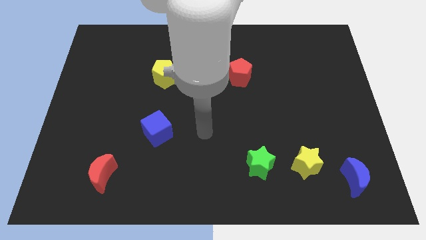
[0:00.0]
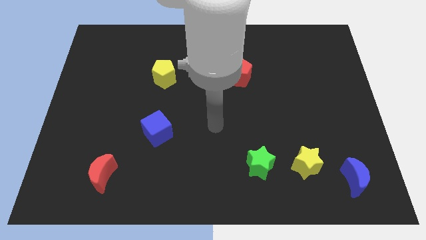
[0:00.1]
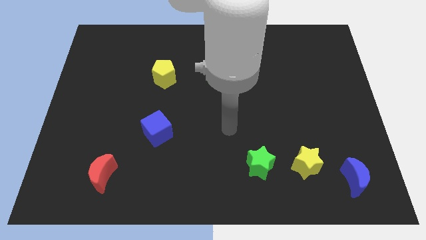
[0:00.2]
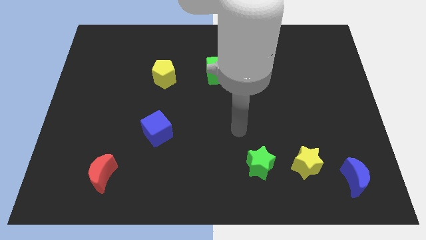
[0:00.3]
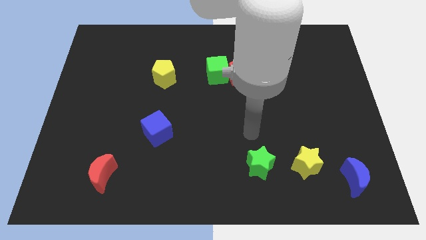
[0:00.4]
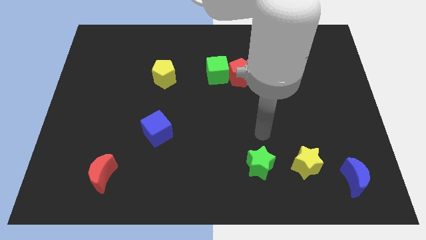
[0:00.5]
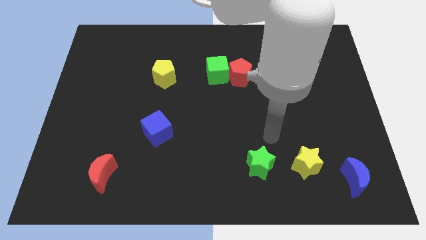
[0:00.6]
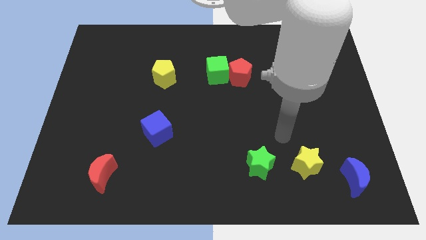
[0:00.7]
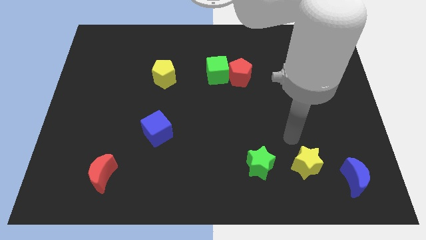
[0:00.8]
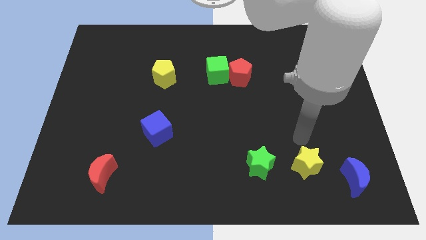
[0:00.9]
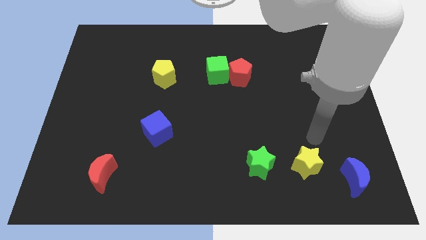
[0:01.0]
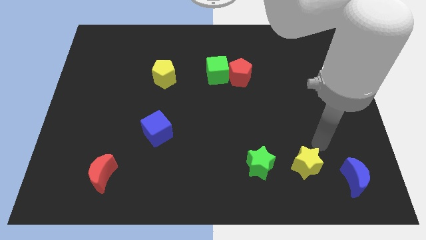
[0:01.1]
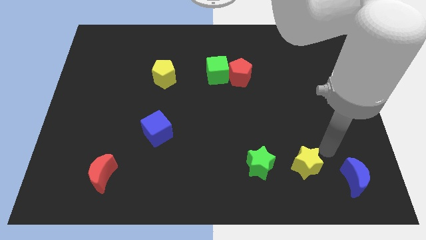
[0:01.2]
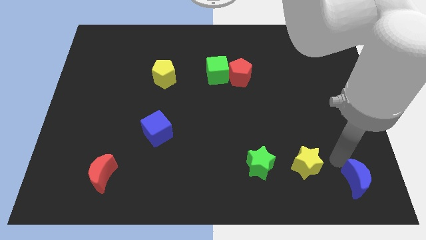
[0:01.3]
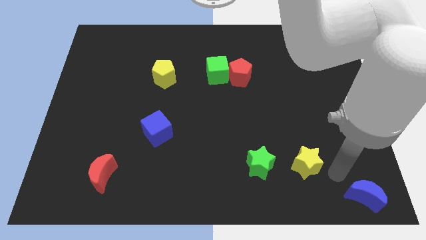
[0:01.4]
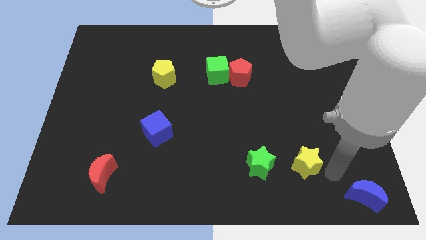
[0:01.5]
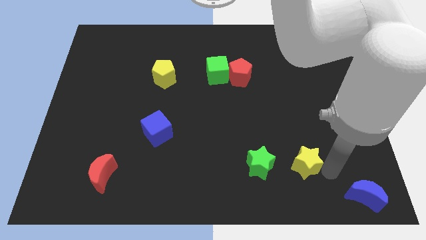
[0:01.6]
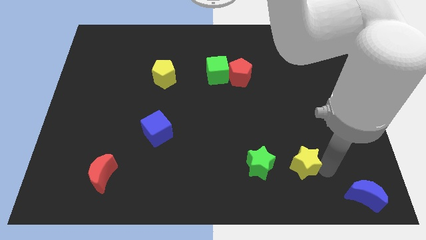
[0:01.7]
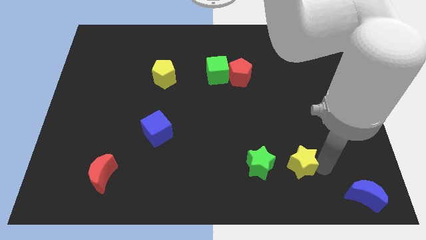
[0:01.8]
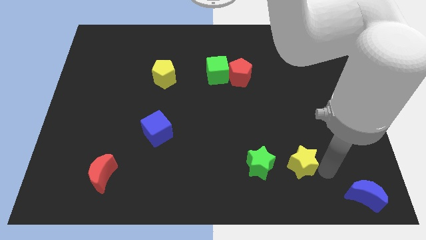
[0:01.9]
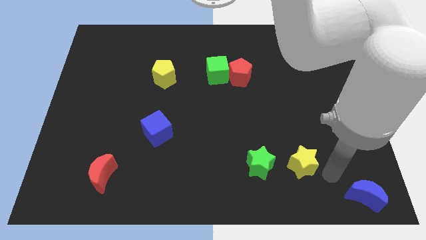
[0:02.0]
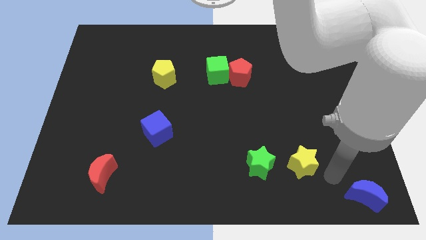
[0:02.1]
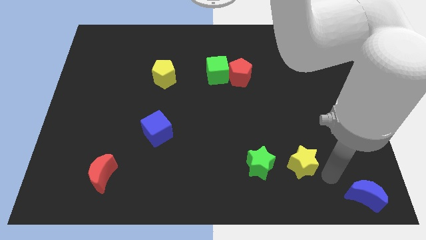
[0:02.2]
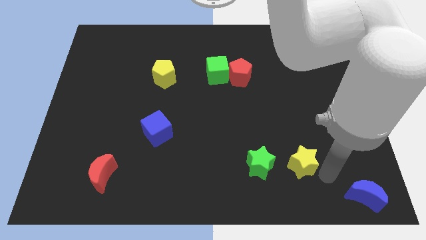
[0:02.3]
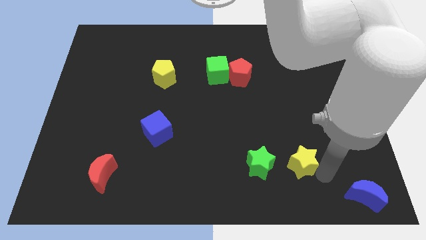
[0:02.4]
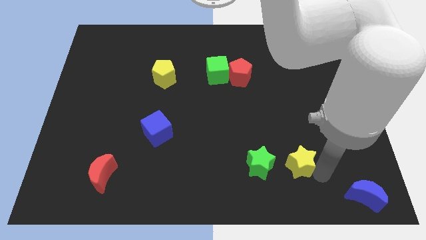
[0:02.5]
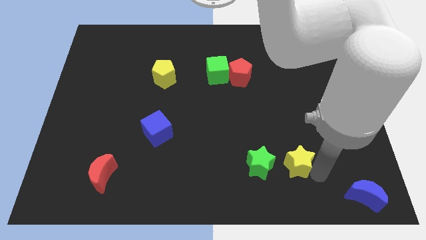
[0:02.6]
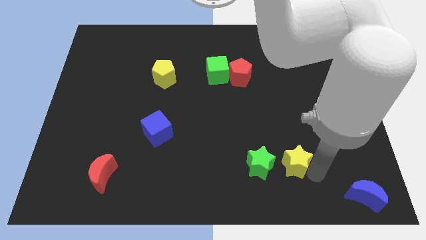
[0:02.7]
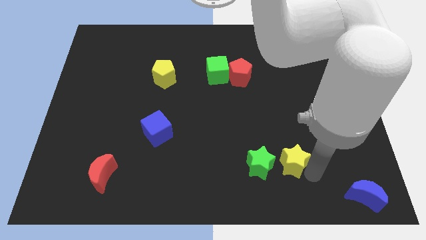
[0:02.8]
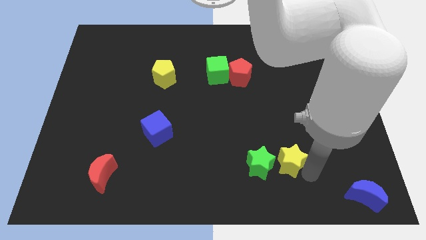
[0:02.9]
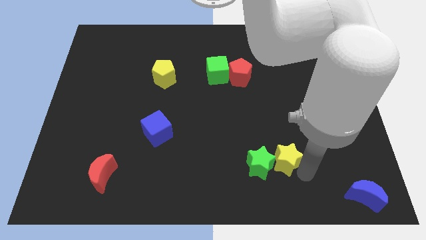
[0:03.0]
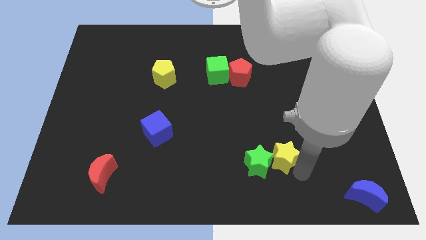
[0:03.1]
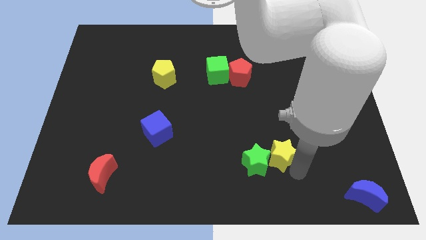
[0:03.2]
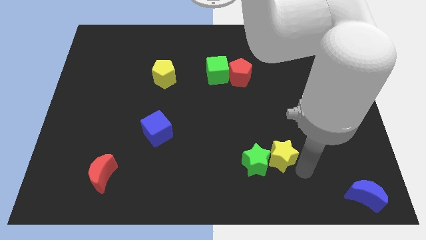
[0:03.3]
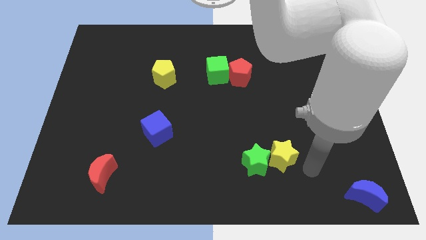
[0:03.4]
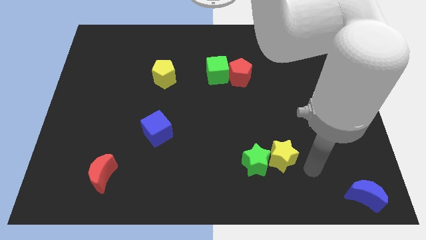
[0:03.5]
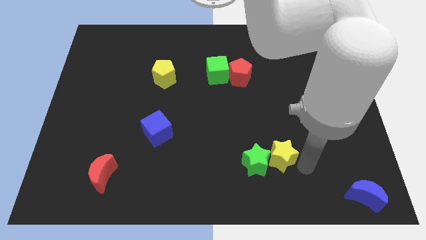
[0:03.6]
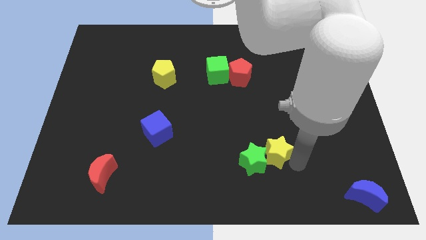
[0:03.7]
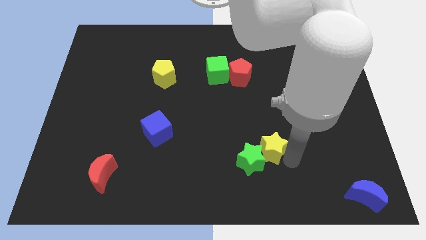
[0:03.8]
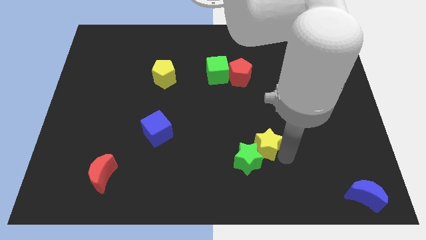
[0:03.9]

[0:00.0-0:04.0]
push the yellow star a little to the left

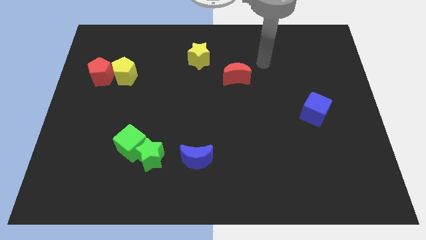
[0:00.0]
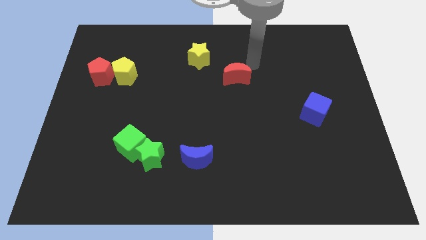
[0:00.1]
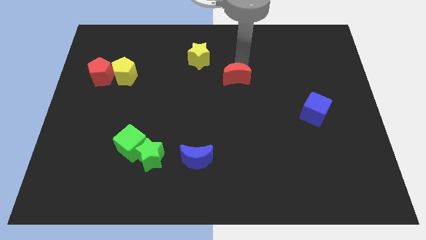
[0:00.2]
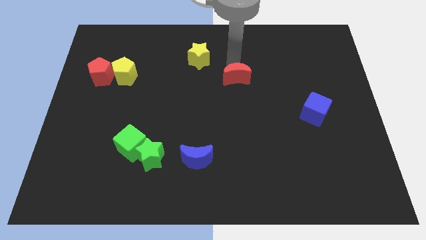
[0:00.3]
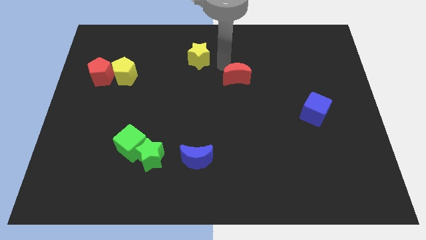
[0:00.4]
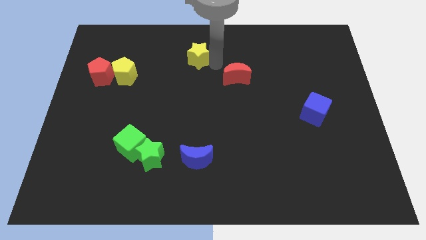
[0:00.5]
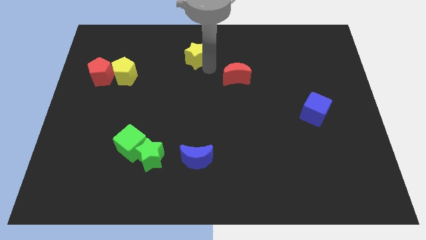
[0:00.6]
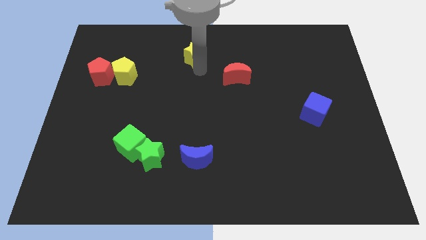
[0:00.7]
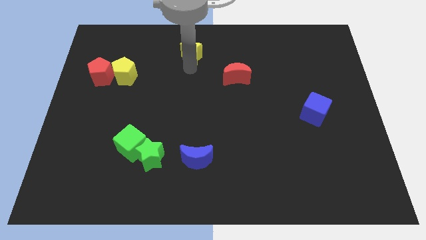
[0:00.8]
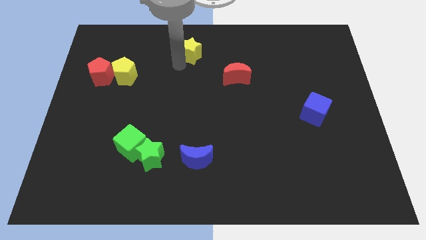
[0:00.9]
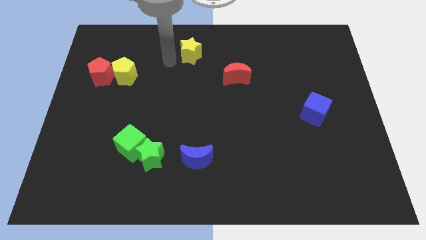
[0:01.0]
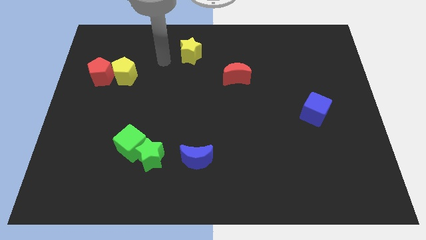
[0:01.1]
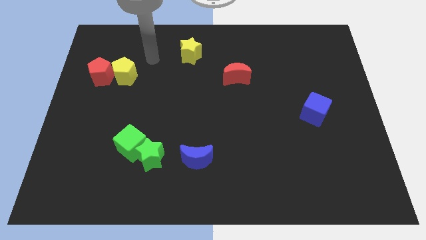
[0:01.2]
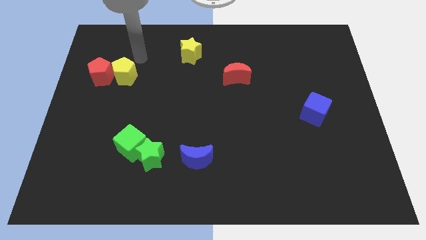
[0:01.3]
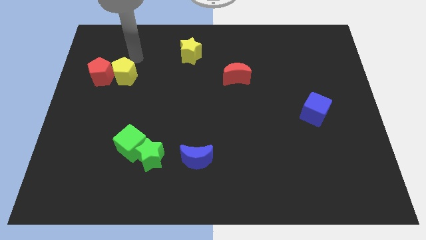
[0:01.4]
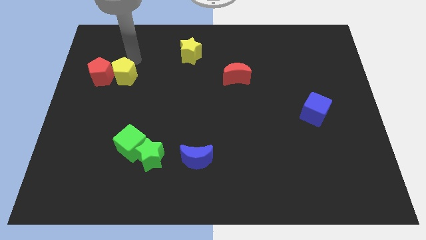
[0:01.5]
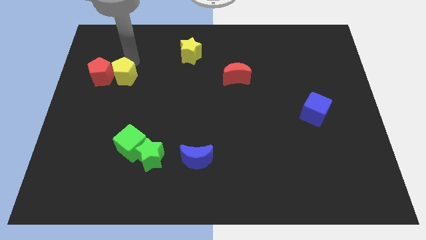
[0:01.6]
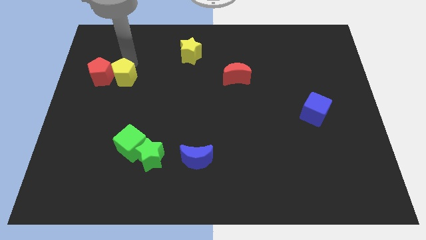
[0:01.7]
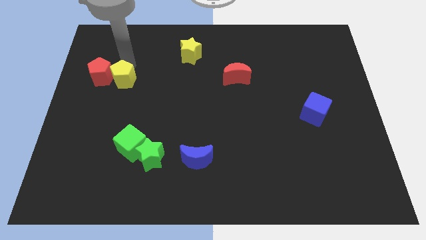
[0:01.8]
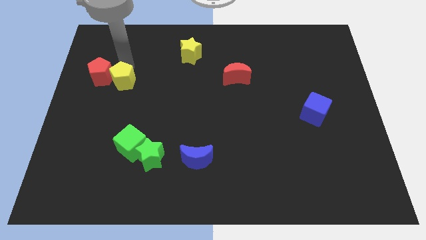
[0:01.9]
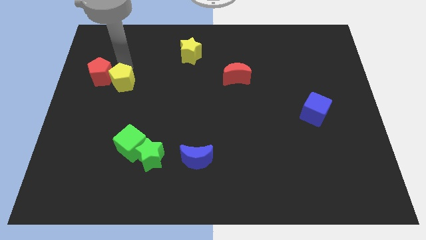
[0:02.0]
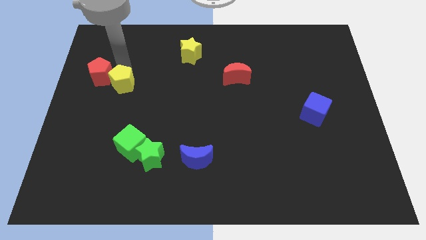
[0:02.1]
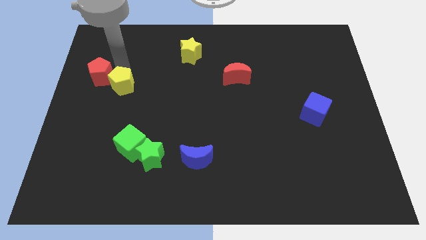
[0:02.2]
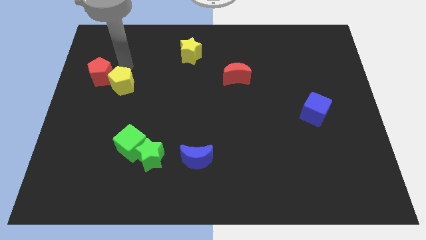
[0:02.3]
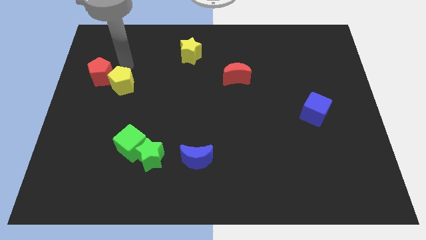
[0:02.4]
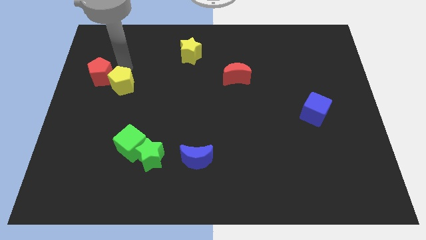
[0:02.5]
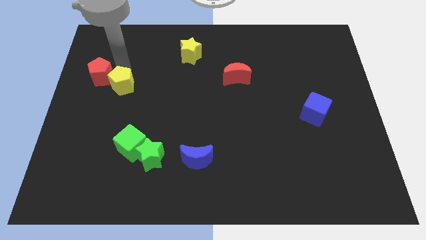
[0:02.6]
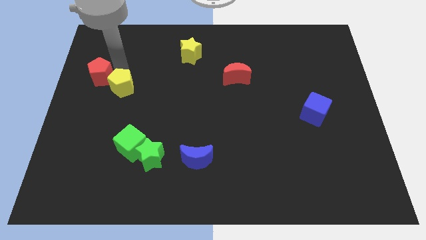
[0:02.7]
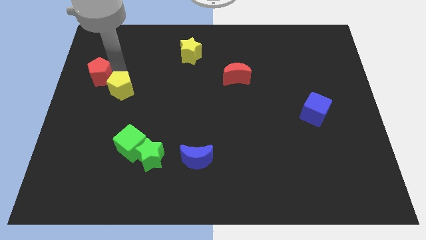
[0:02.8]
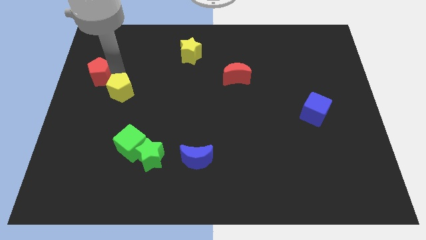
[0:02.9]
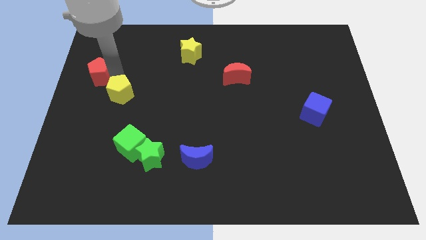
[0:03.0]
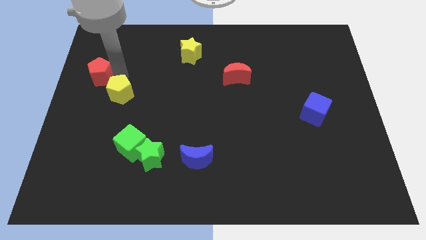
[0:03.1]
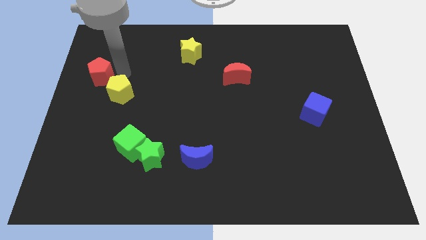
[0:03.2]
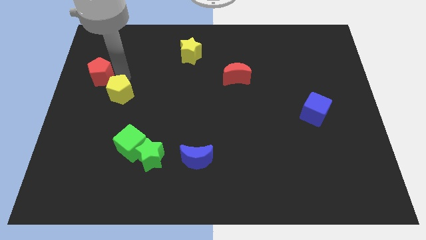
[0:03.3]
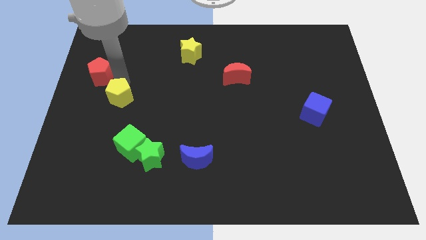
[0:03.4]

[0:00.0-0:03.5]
move the yellow pentagon a little down

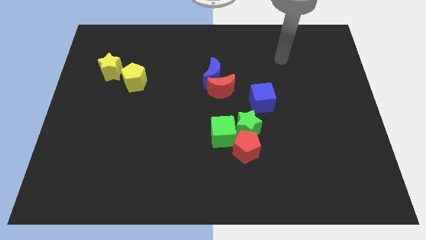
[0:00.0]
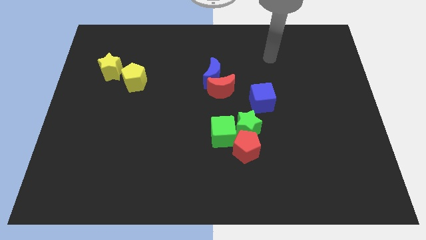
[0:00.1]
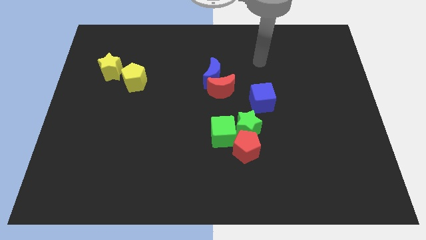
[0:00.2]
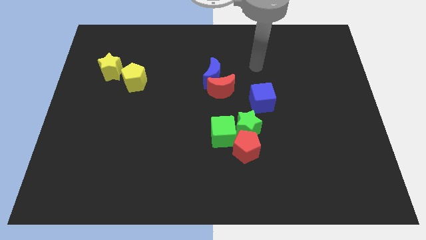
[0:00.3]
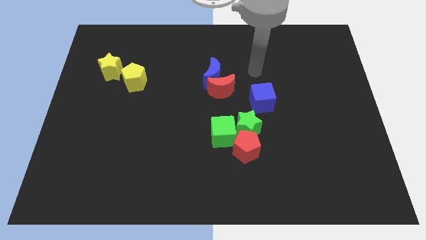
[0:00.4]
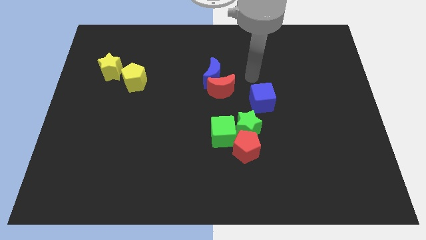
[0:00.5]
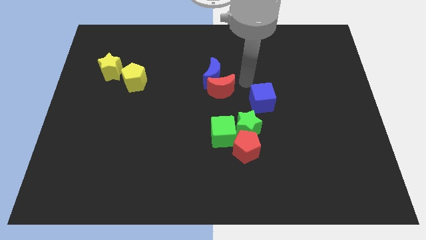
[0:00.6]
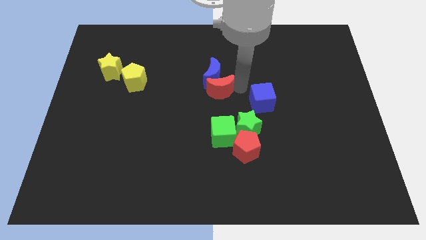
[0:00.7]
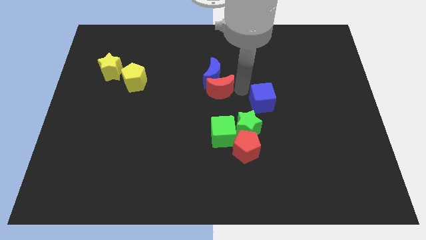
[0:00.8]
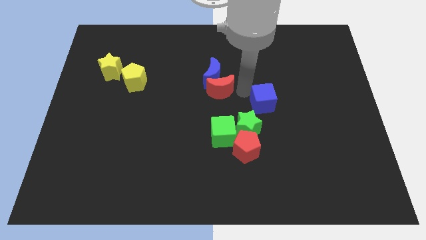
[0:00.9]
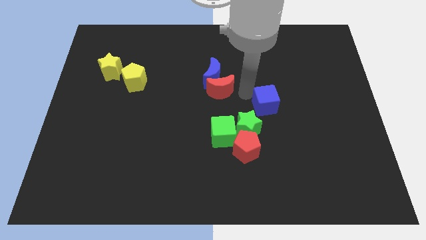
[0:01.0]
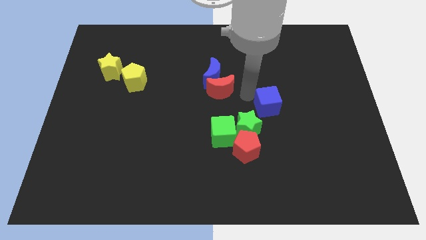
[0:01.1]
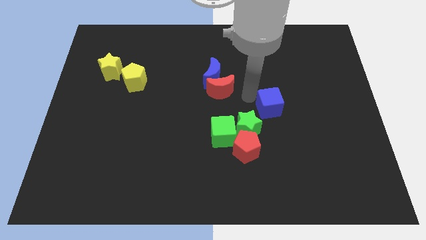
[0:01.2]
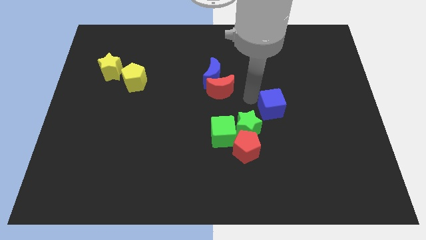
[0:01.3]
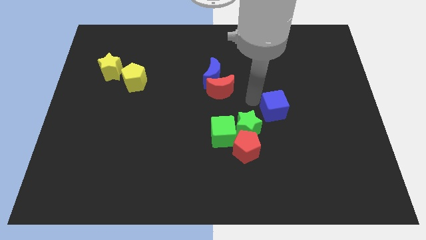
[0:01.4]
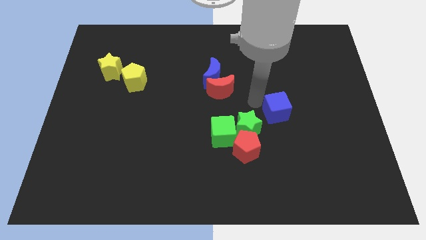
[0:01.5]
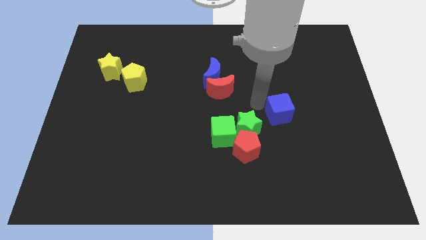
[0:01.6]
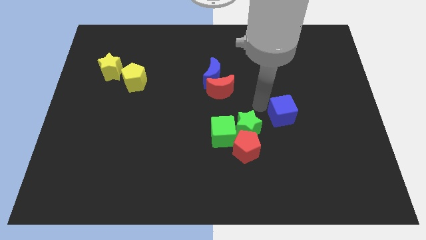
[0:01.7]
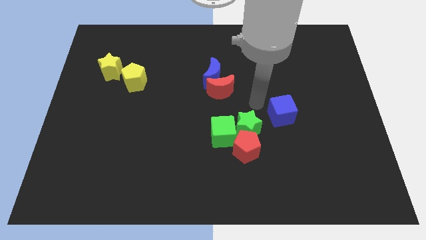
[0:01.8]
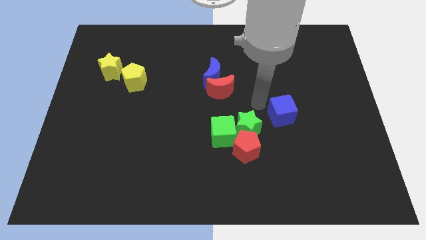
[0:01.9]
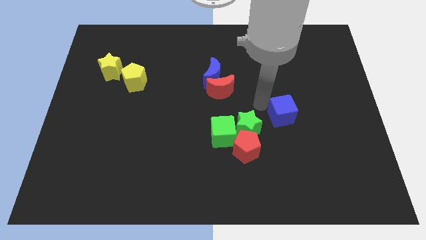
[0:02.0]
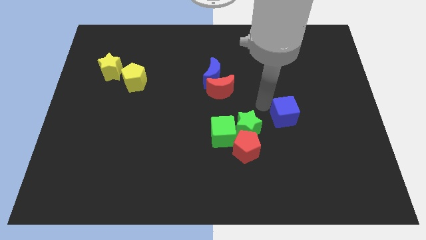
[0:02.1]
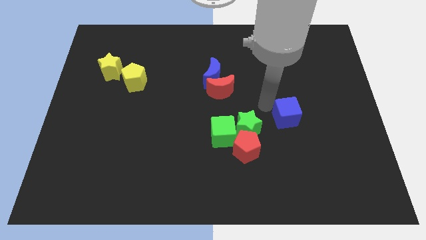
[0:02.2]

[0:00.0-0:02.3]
slightly slide the blue cube down and to the right diagonally
